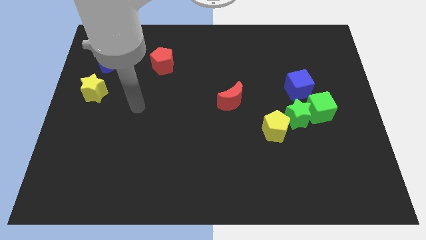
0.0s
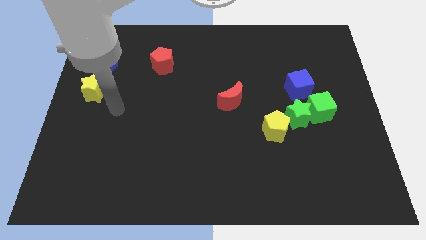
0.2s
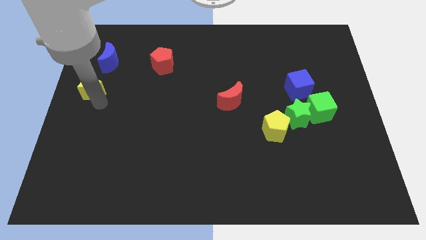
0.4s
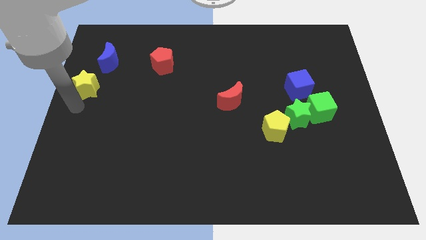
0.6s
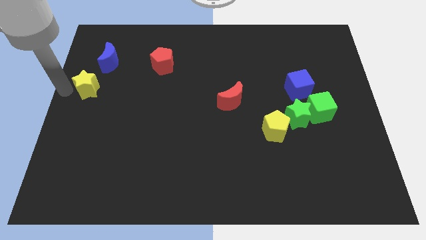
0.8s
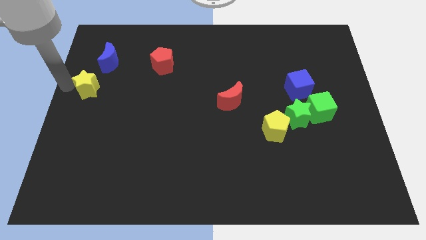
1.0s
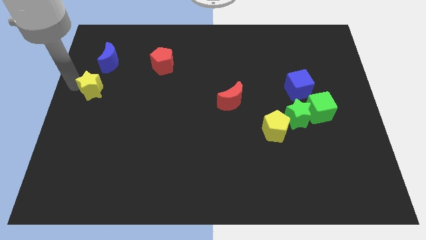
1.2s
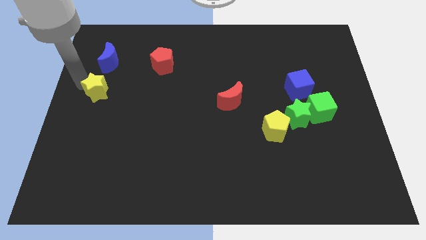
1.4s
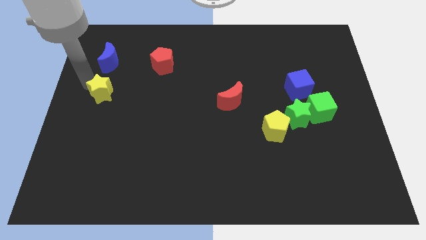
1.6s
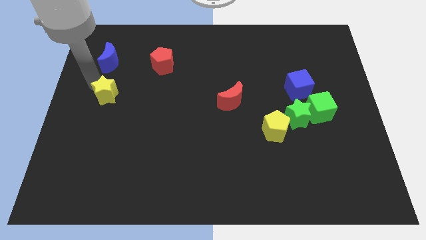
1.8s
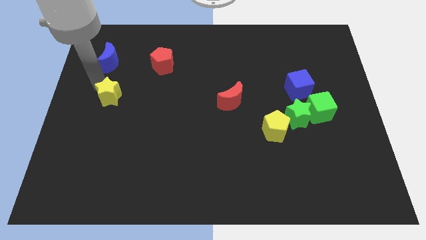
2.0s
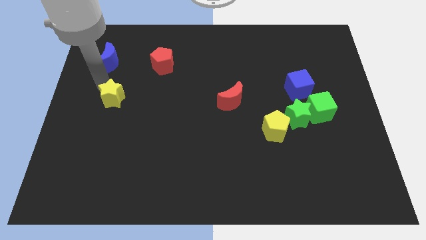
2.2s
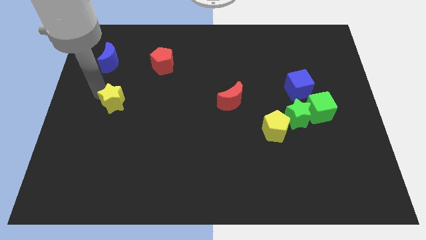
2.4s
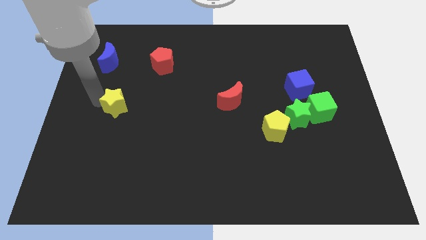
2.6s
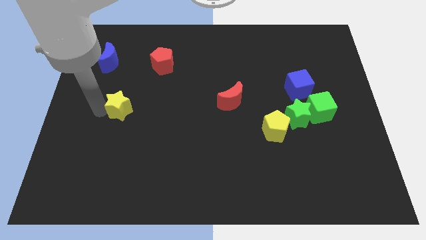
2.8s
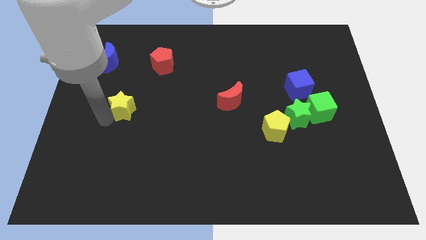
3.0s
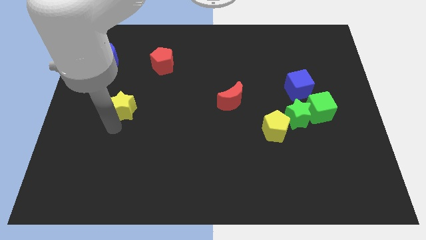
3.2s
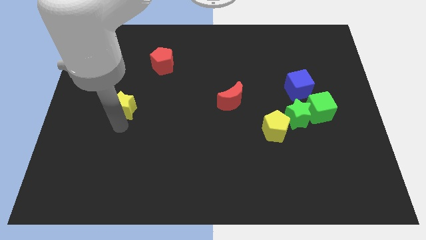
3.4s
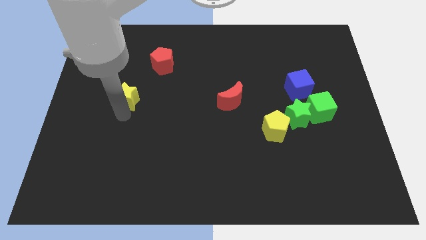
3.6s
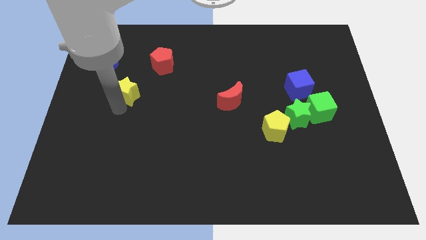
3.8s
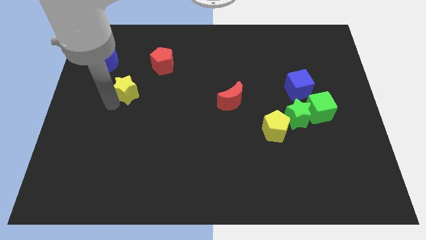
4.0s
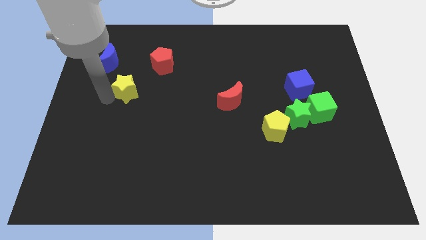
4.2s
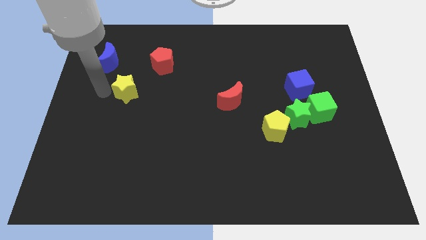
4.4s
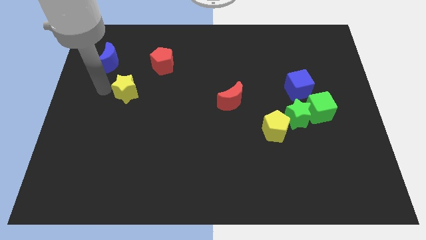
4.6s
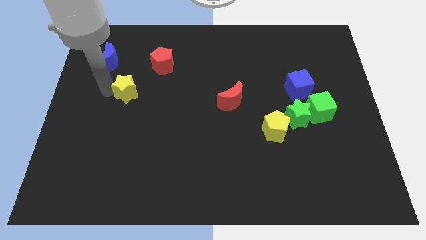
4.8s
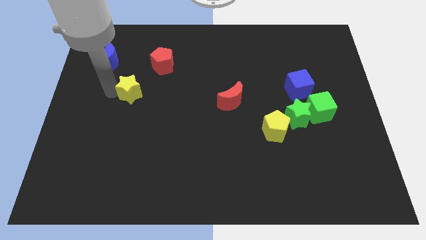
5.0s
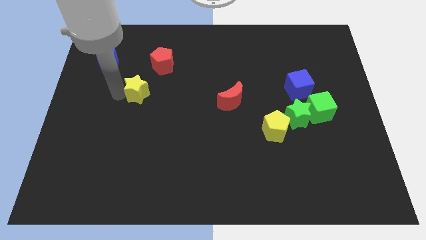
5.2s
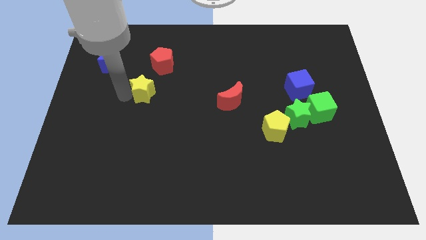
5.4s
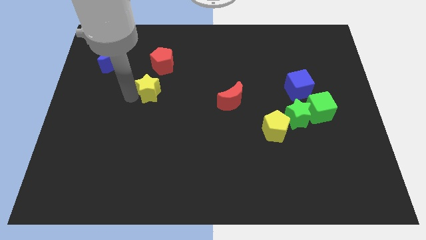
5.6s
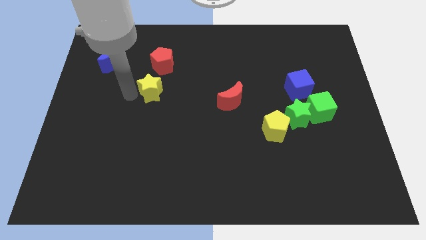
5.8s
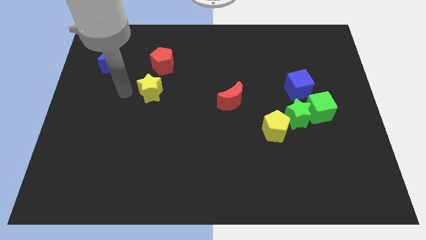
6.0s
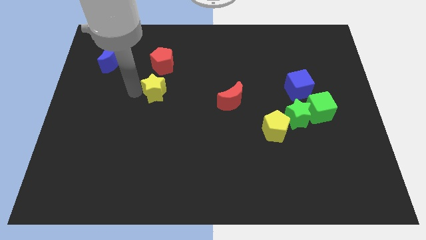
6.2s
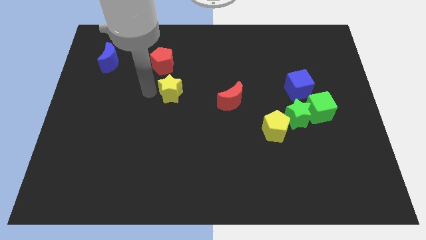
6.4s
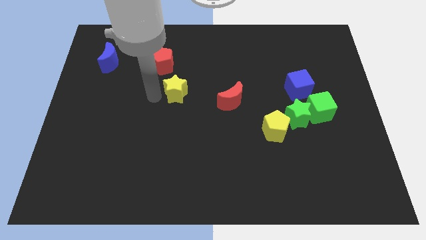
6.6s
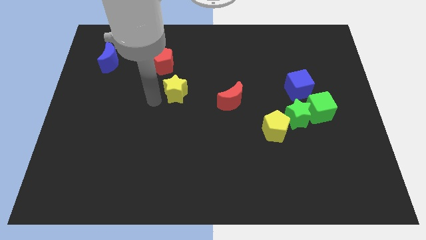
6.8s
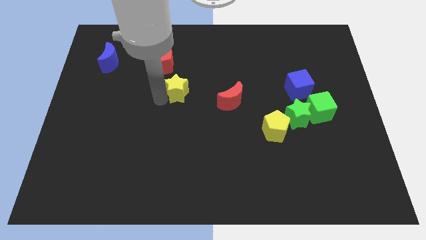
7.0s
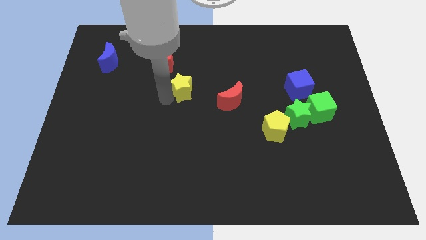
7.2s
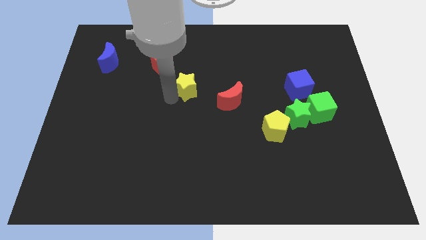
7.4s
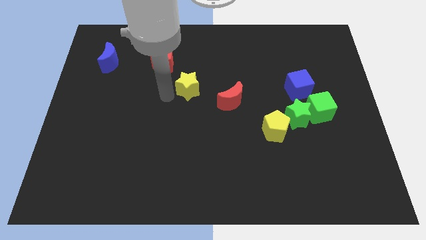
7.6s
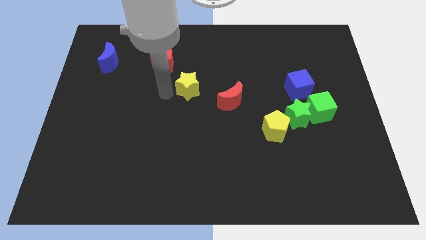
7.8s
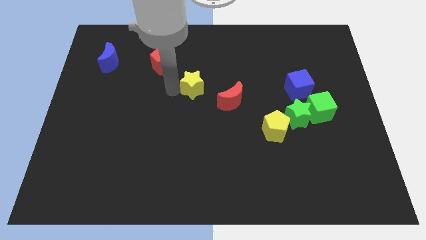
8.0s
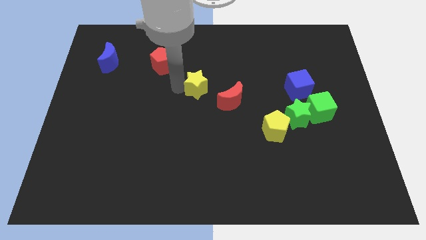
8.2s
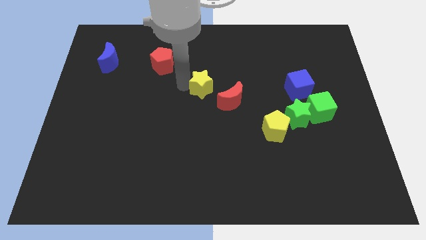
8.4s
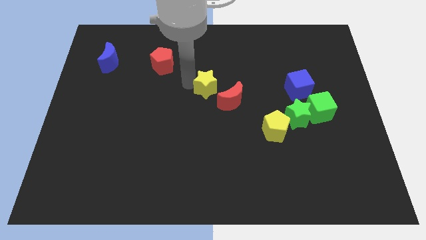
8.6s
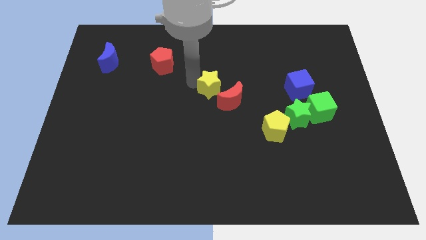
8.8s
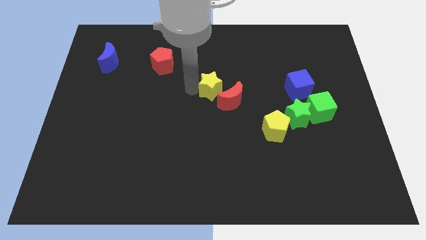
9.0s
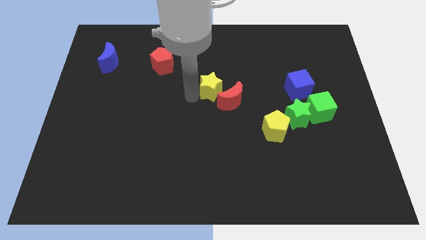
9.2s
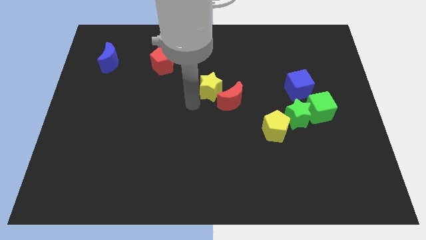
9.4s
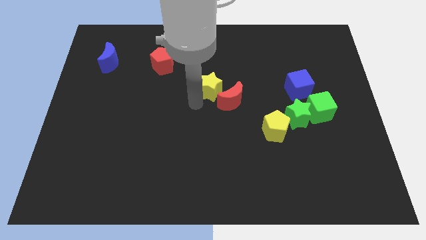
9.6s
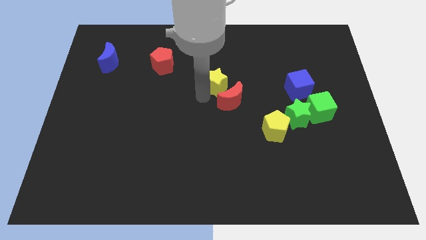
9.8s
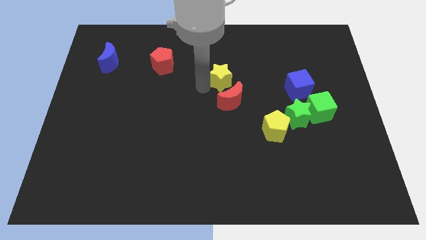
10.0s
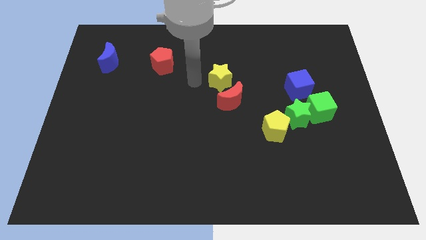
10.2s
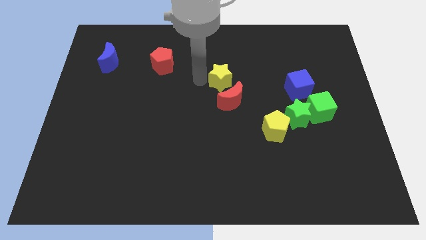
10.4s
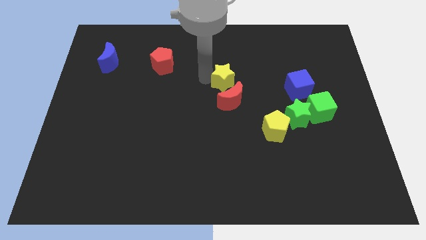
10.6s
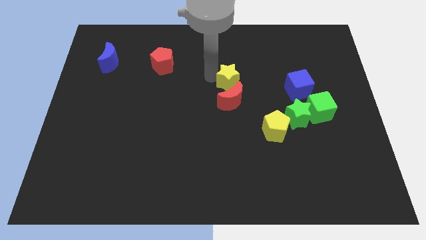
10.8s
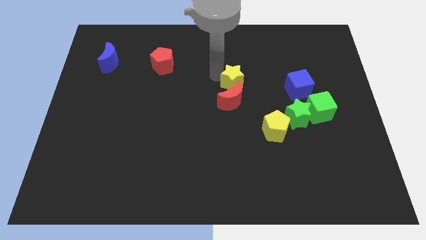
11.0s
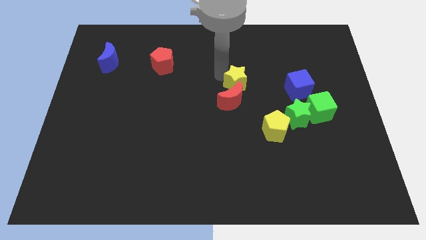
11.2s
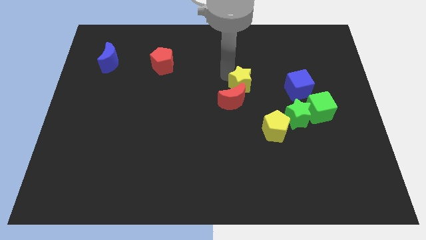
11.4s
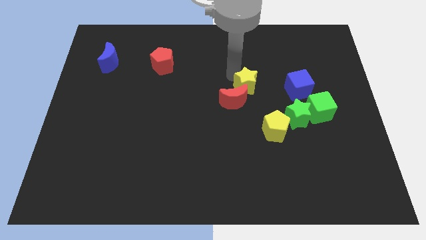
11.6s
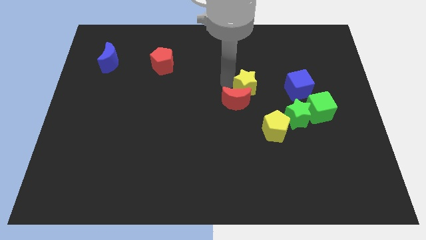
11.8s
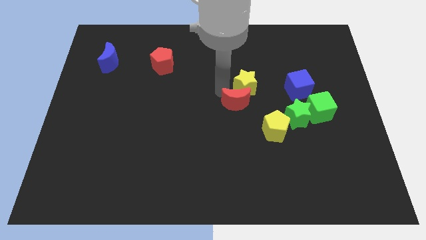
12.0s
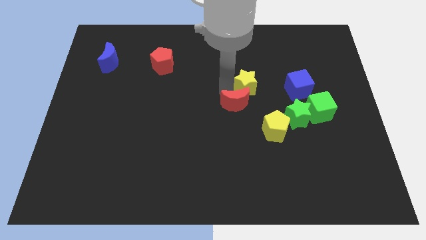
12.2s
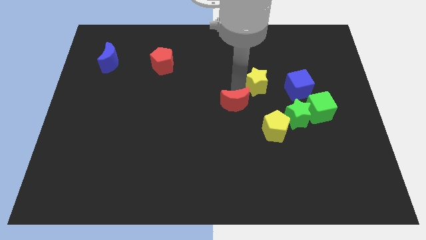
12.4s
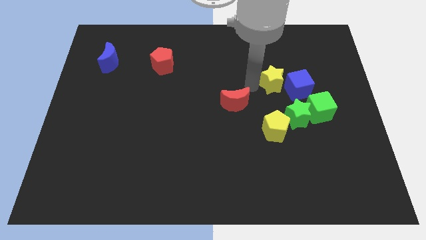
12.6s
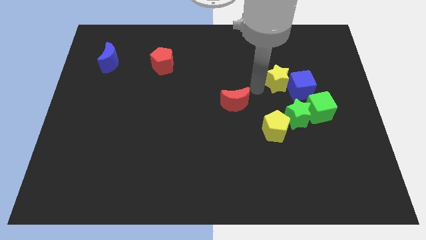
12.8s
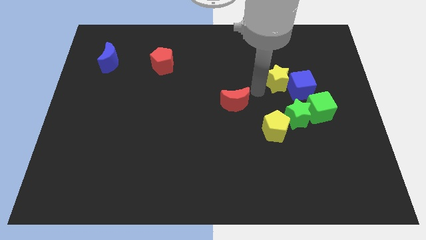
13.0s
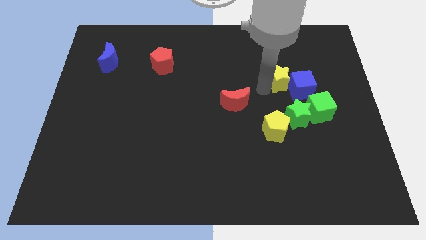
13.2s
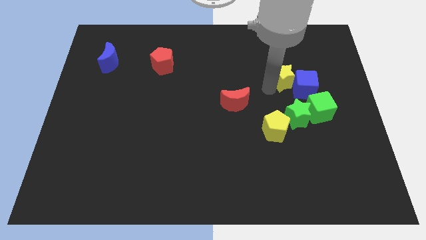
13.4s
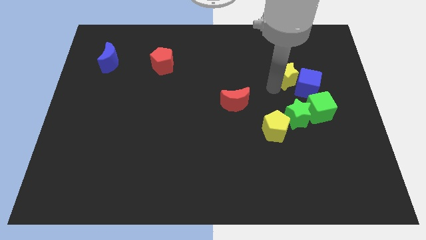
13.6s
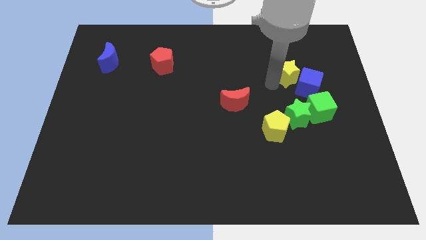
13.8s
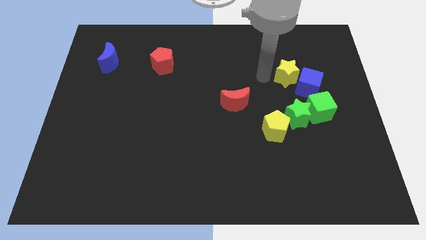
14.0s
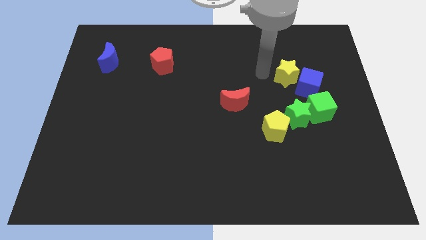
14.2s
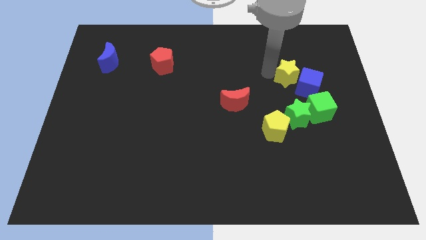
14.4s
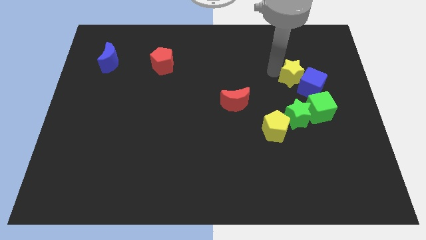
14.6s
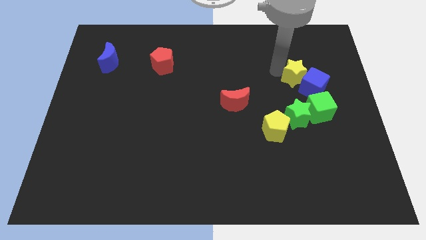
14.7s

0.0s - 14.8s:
slide the yellow star above the green cube

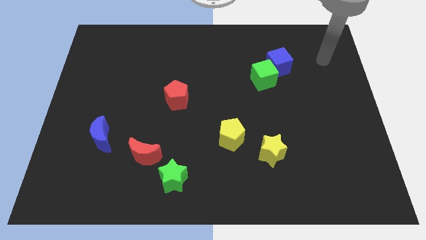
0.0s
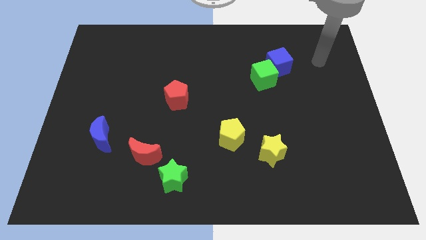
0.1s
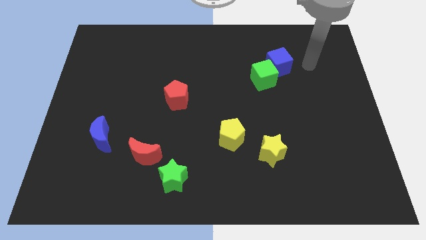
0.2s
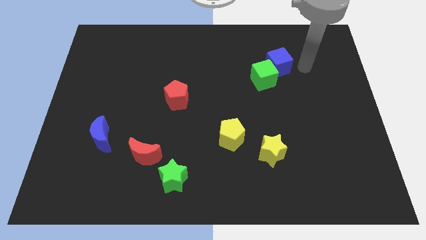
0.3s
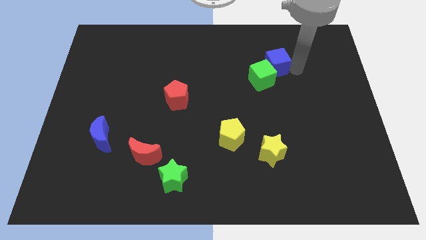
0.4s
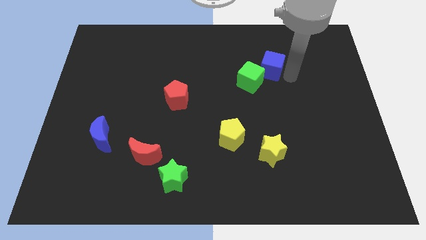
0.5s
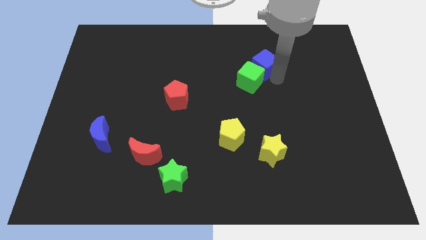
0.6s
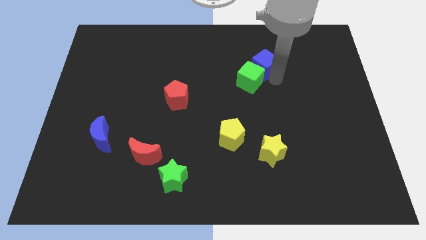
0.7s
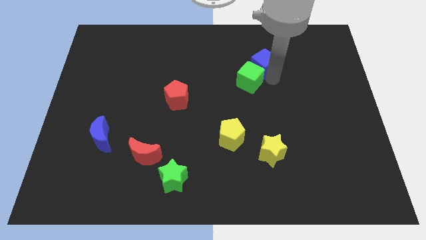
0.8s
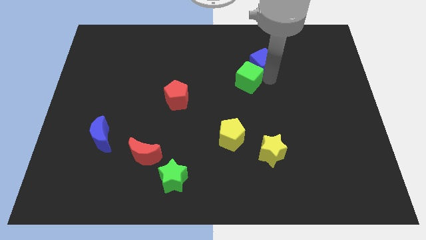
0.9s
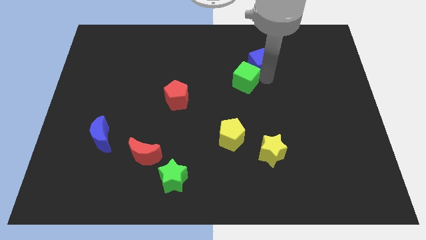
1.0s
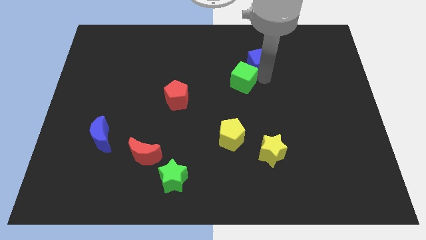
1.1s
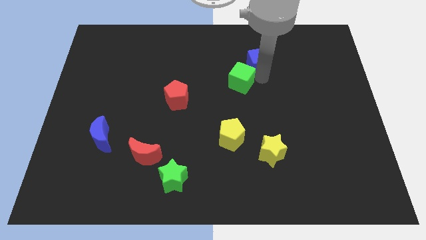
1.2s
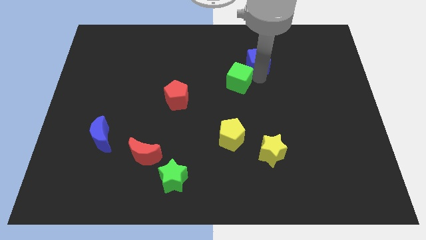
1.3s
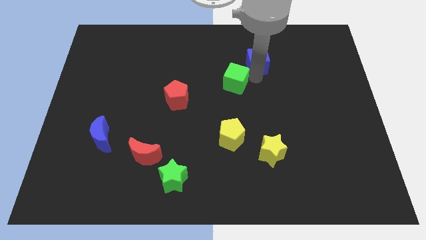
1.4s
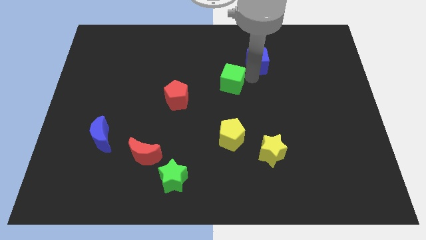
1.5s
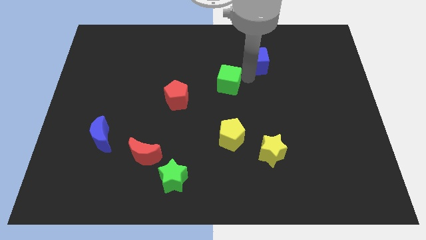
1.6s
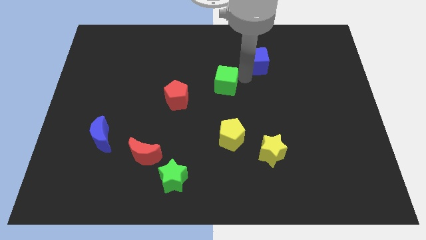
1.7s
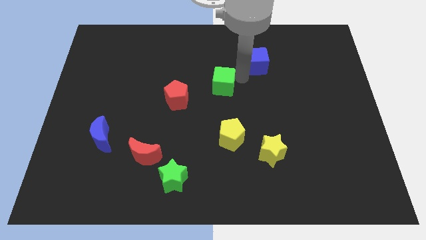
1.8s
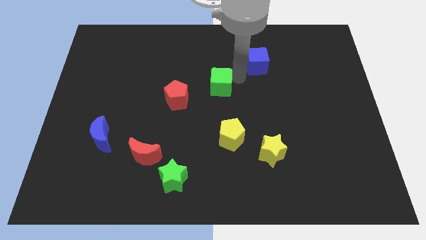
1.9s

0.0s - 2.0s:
move the green cube diagonally up and to the right of the red pentagon
